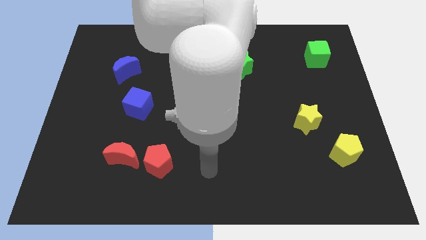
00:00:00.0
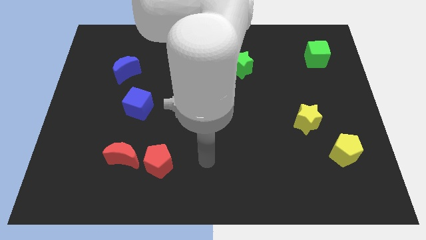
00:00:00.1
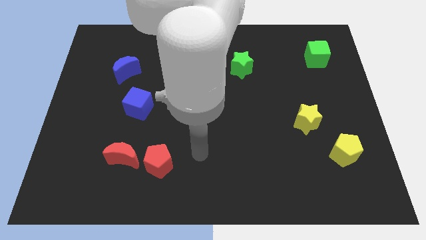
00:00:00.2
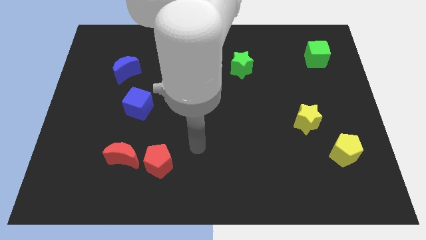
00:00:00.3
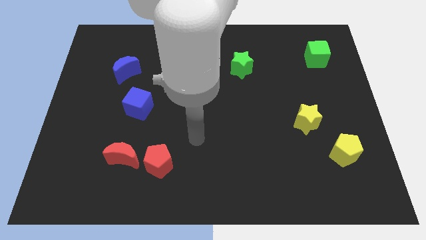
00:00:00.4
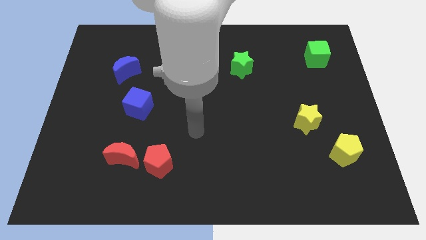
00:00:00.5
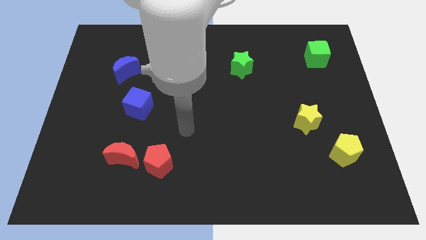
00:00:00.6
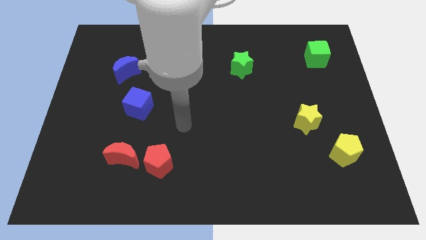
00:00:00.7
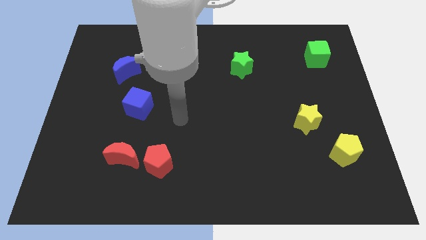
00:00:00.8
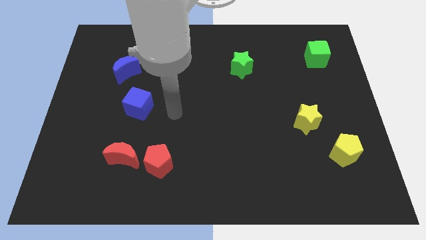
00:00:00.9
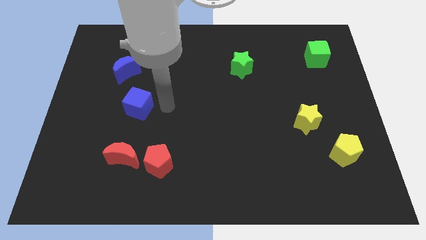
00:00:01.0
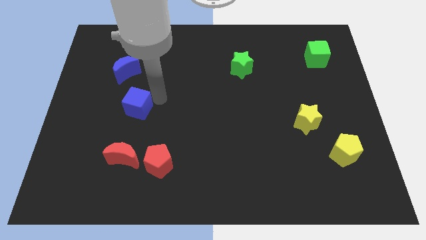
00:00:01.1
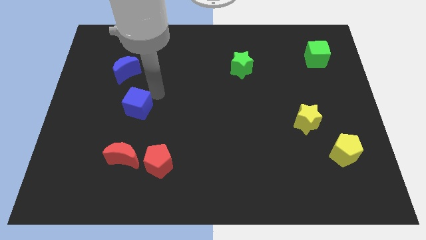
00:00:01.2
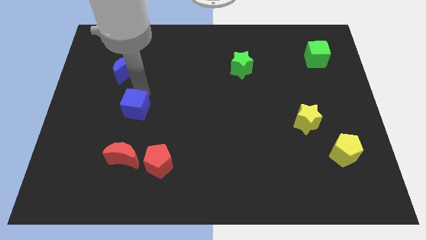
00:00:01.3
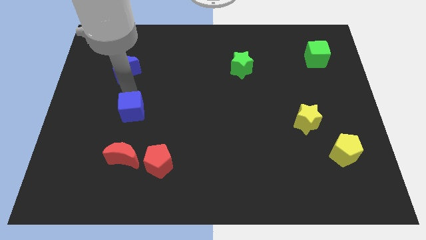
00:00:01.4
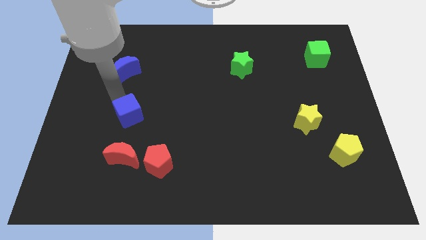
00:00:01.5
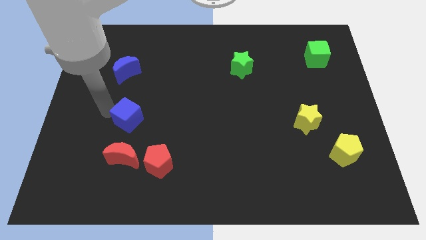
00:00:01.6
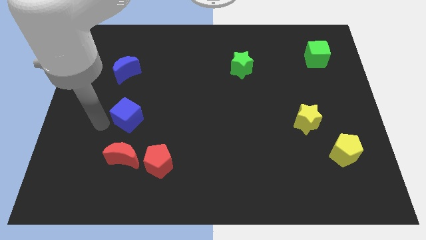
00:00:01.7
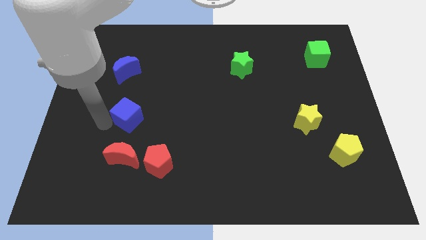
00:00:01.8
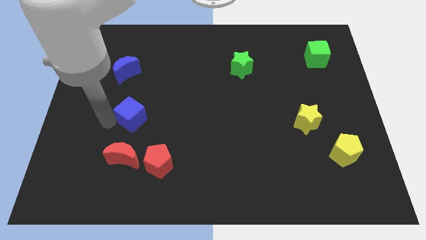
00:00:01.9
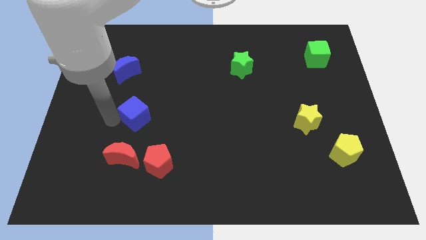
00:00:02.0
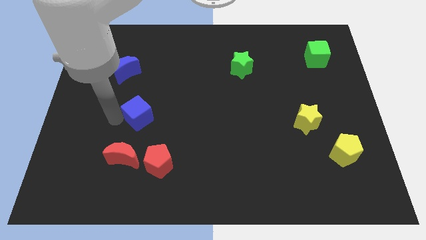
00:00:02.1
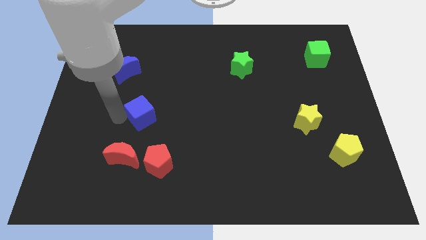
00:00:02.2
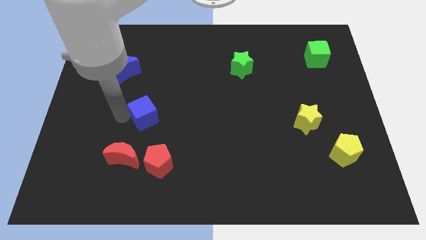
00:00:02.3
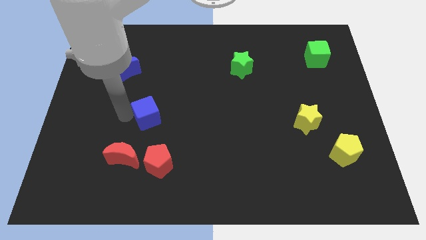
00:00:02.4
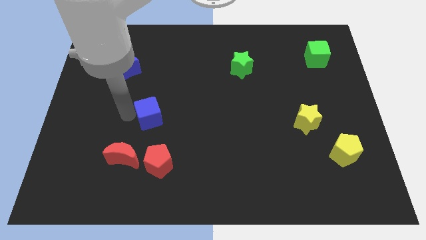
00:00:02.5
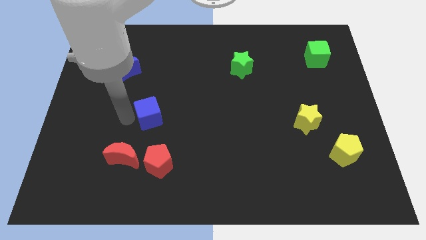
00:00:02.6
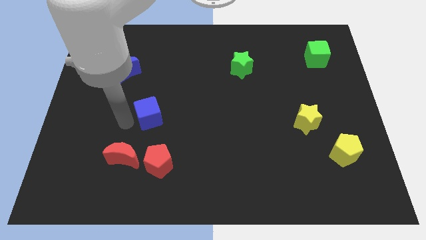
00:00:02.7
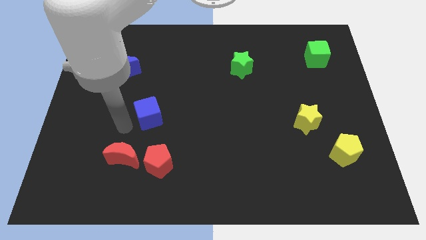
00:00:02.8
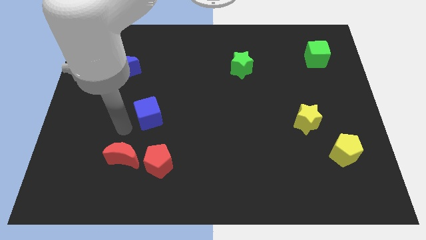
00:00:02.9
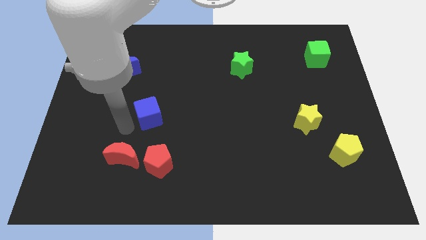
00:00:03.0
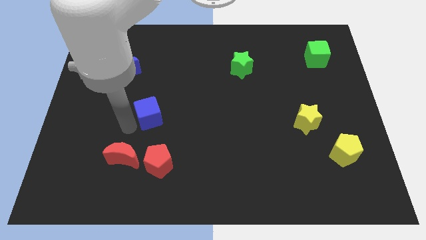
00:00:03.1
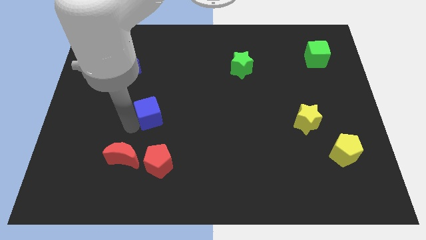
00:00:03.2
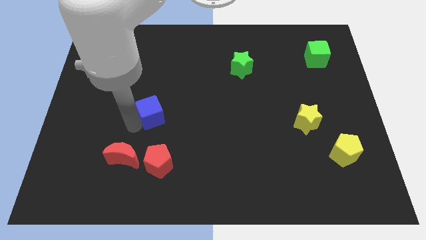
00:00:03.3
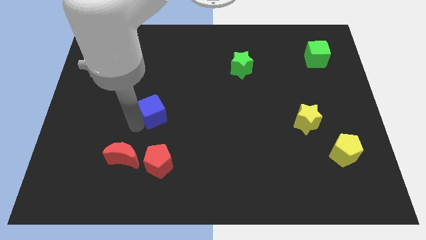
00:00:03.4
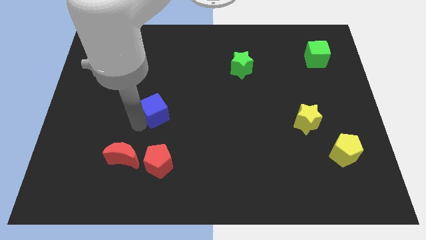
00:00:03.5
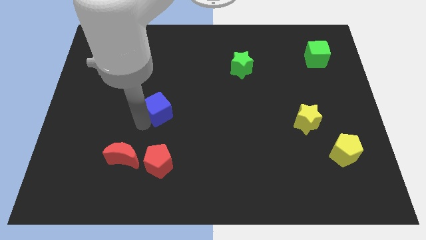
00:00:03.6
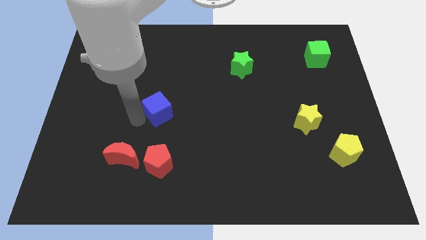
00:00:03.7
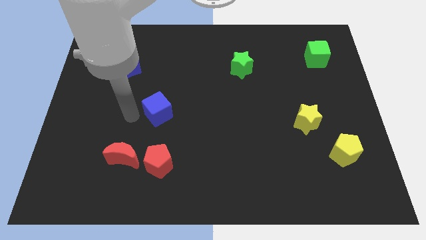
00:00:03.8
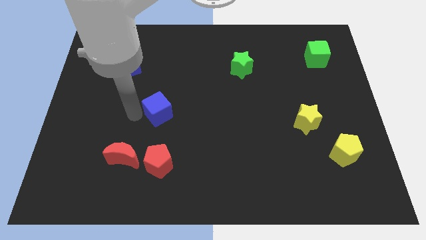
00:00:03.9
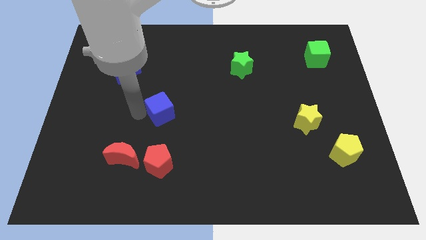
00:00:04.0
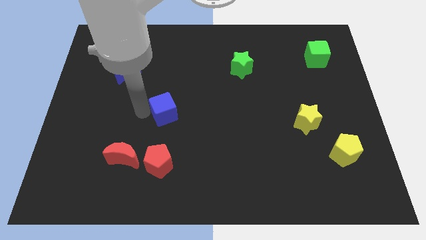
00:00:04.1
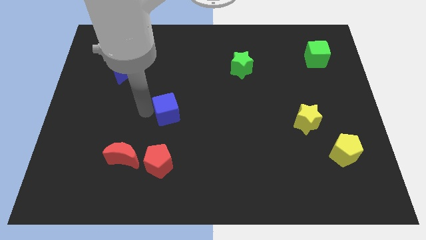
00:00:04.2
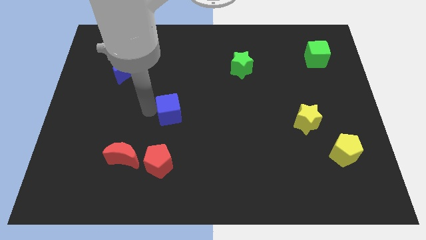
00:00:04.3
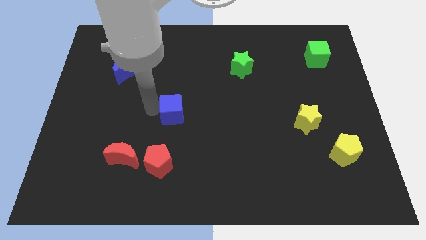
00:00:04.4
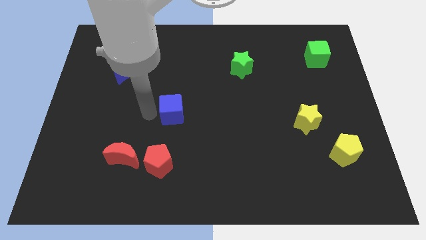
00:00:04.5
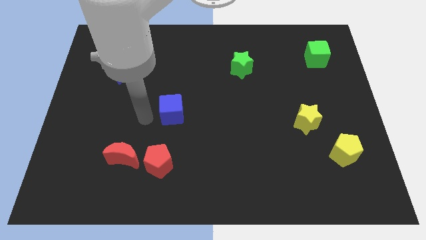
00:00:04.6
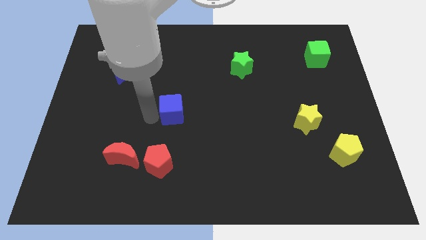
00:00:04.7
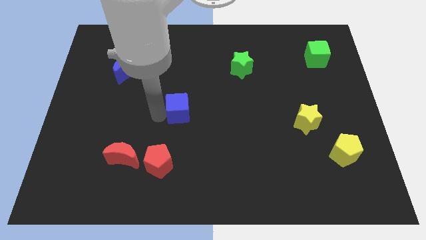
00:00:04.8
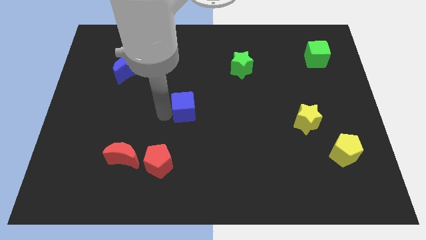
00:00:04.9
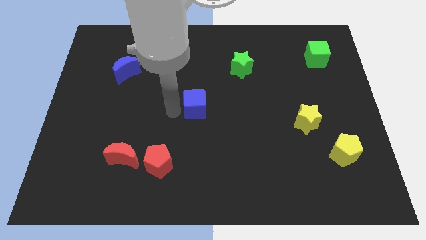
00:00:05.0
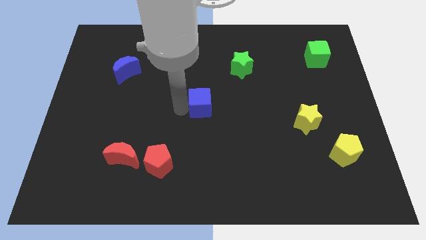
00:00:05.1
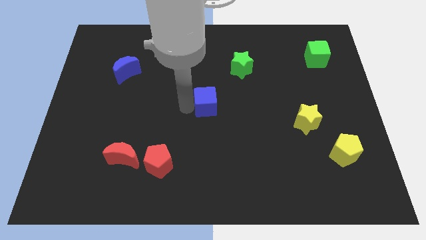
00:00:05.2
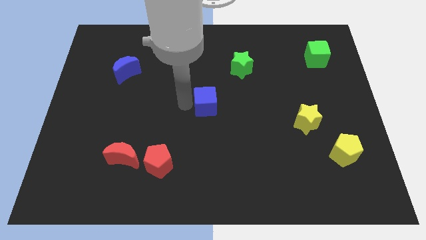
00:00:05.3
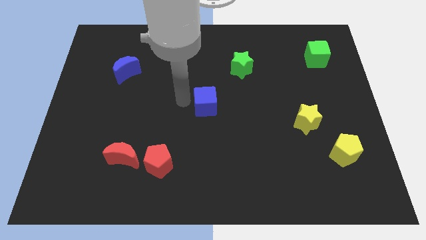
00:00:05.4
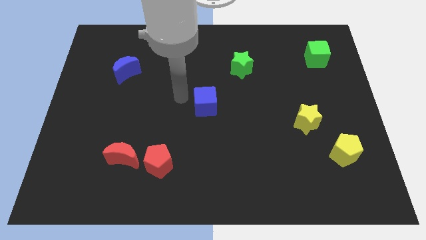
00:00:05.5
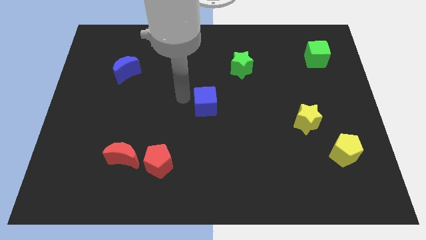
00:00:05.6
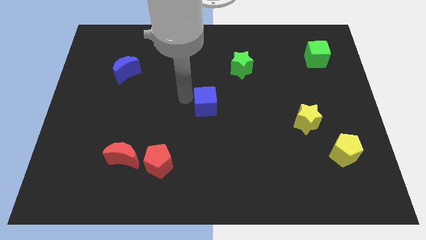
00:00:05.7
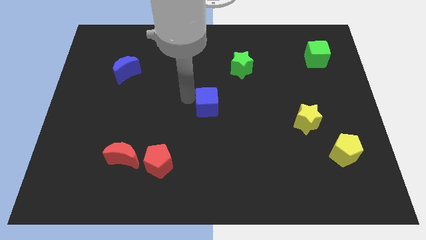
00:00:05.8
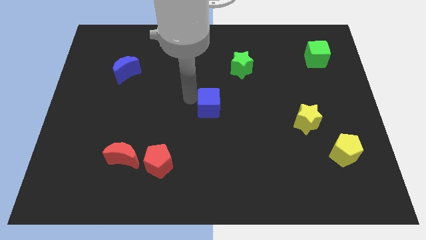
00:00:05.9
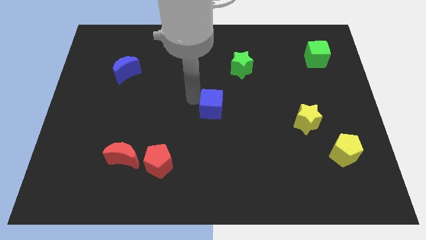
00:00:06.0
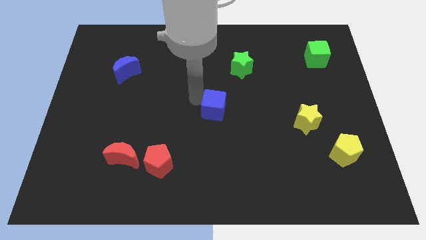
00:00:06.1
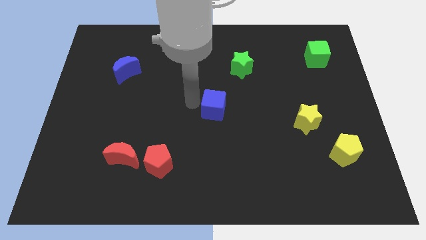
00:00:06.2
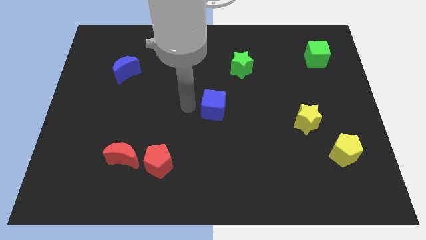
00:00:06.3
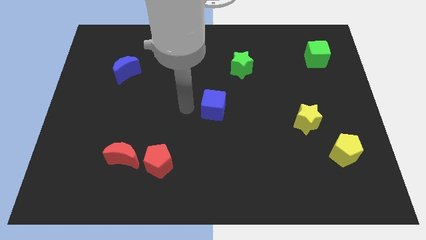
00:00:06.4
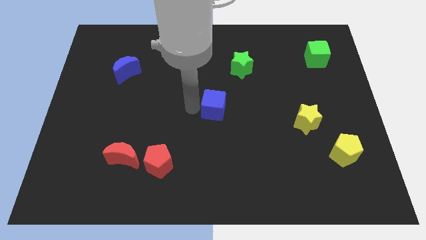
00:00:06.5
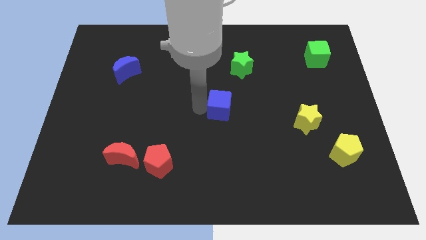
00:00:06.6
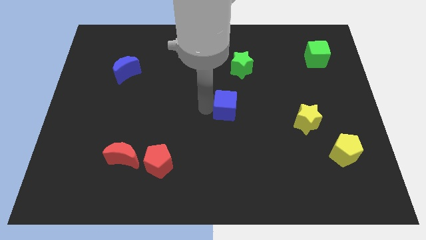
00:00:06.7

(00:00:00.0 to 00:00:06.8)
move the blue cube right

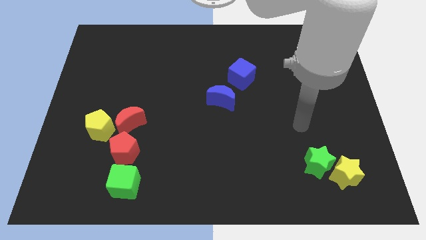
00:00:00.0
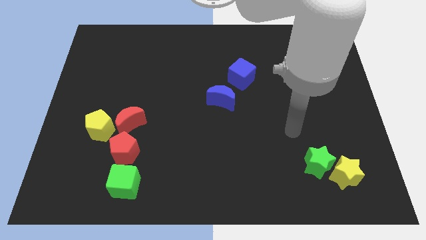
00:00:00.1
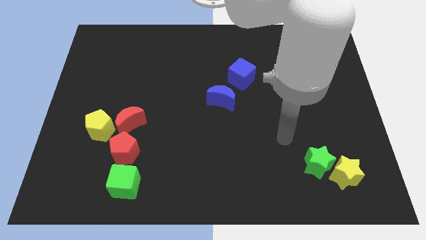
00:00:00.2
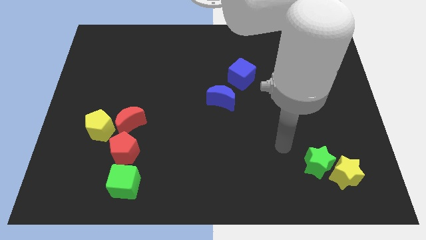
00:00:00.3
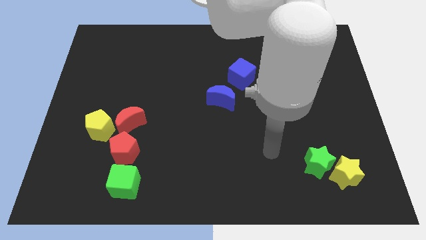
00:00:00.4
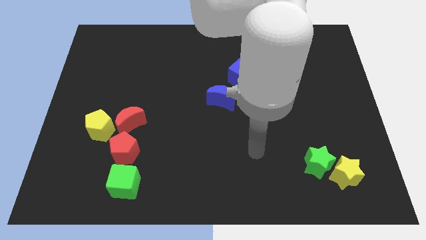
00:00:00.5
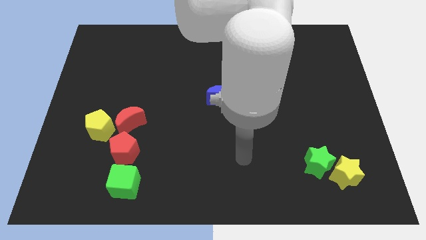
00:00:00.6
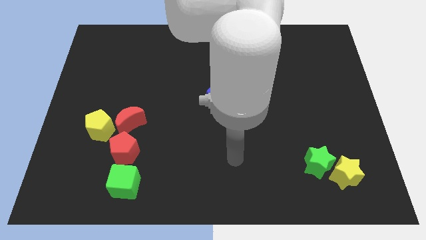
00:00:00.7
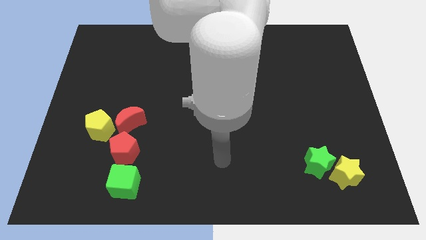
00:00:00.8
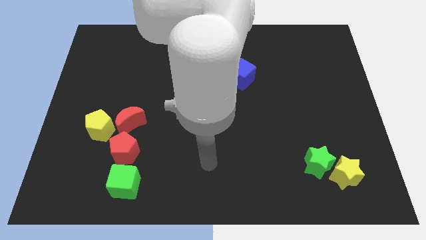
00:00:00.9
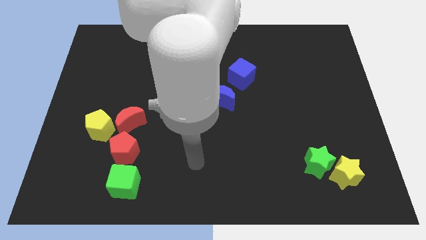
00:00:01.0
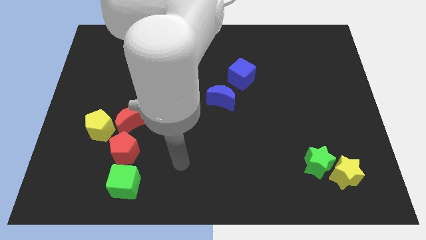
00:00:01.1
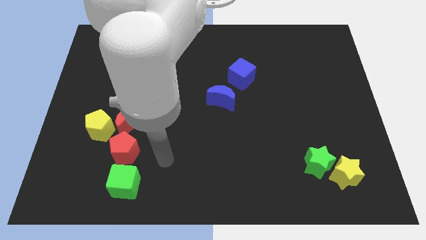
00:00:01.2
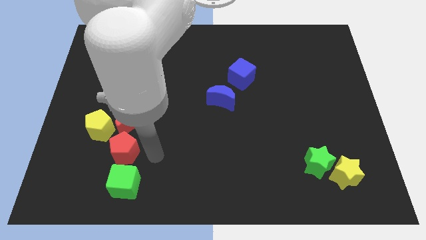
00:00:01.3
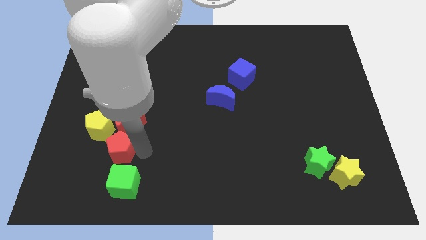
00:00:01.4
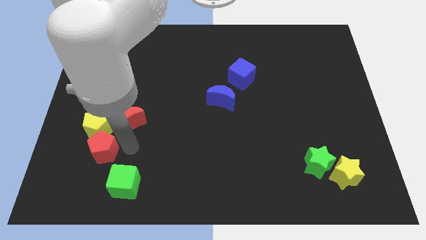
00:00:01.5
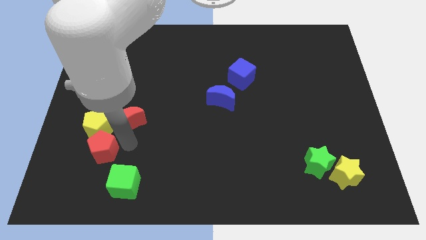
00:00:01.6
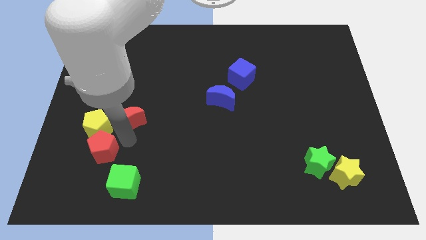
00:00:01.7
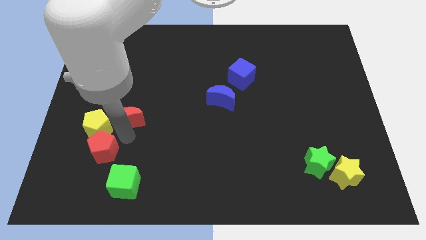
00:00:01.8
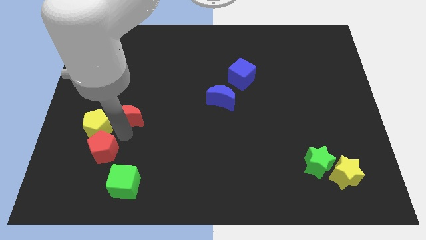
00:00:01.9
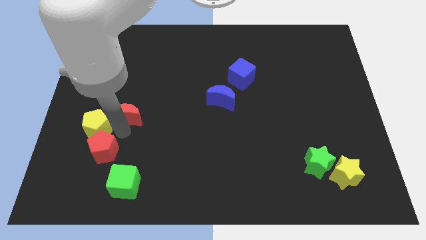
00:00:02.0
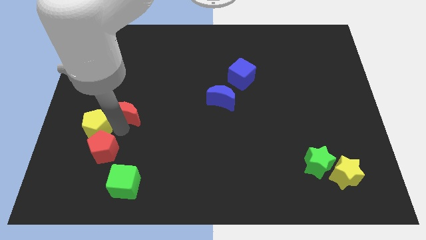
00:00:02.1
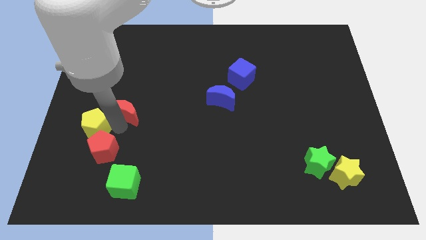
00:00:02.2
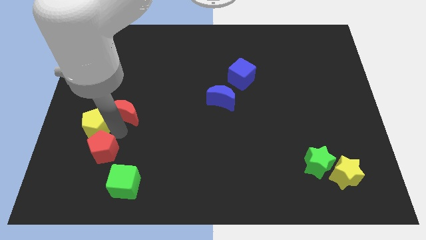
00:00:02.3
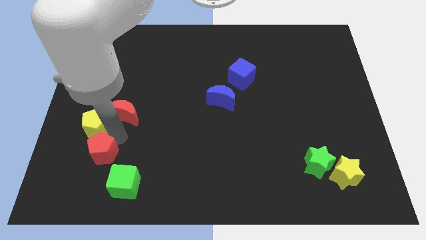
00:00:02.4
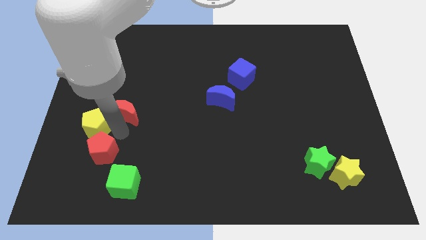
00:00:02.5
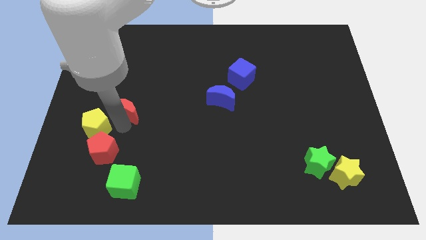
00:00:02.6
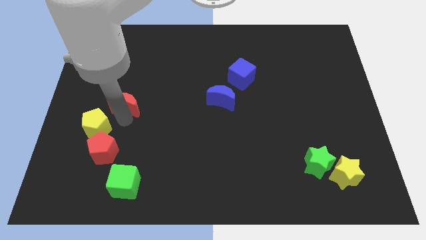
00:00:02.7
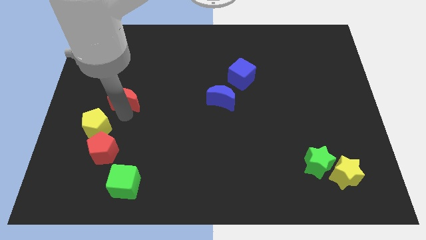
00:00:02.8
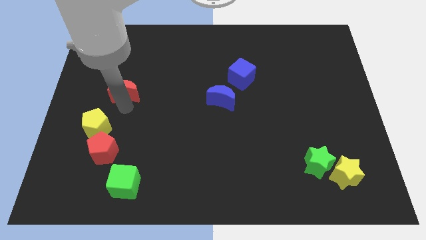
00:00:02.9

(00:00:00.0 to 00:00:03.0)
move the red moon upwards a bit
